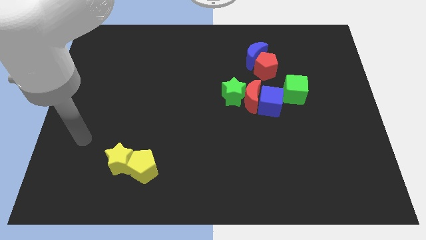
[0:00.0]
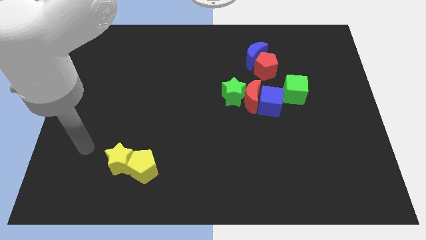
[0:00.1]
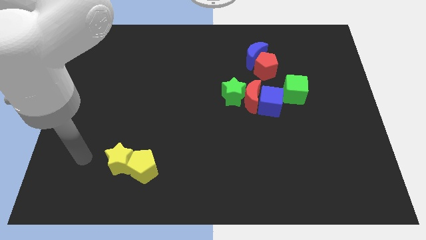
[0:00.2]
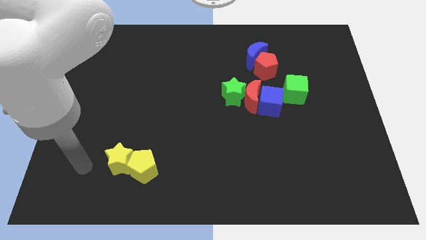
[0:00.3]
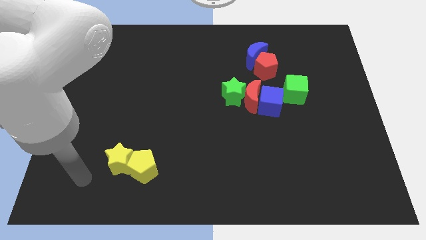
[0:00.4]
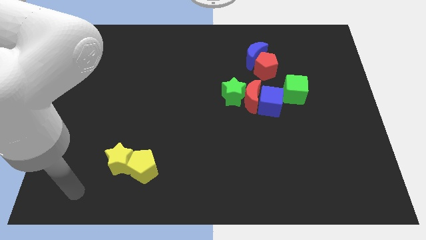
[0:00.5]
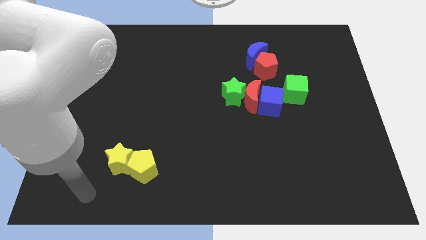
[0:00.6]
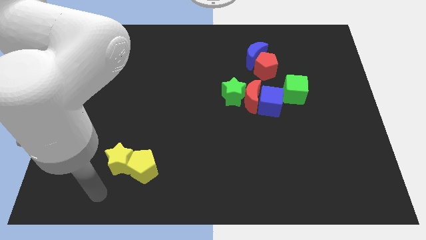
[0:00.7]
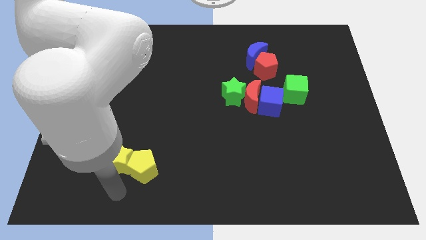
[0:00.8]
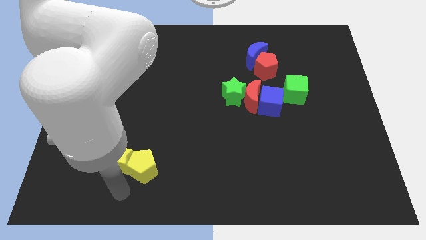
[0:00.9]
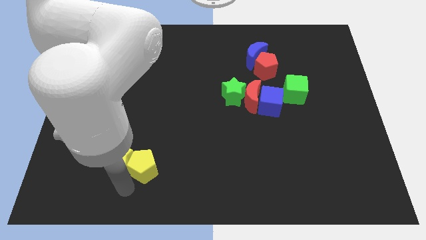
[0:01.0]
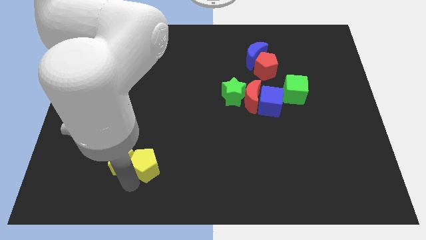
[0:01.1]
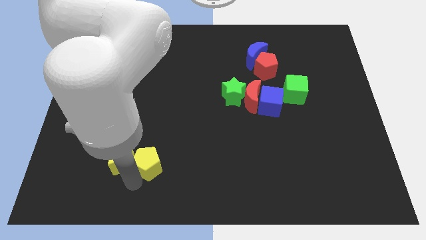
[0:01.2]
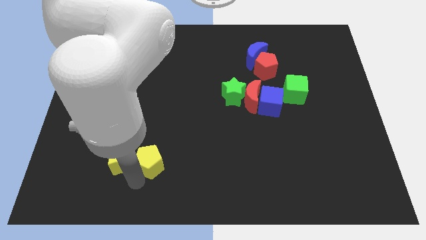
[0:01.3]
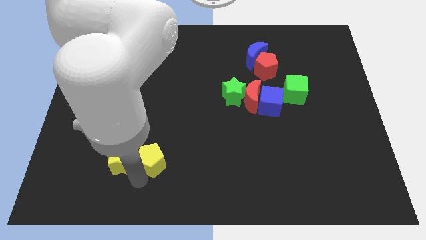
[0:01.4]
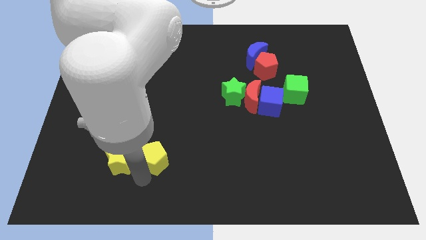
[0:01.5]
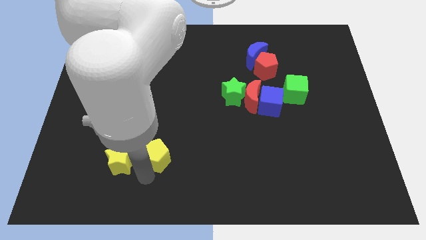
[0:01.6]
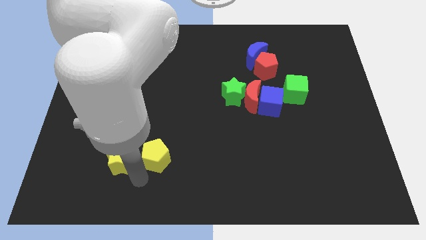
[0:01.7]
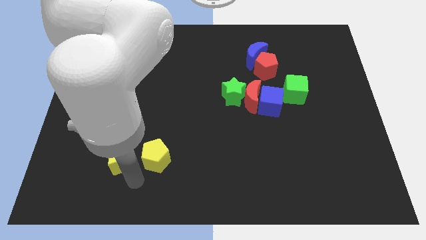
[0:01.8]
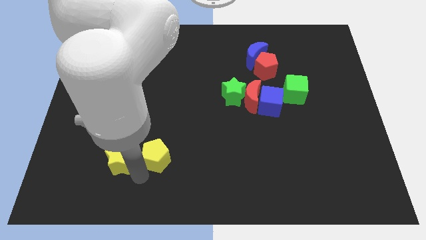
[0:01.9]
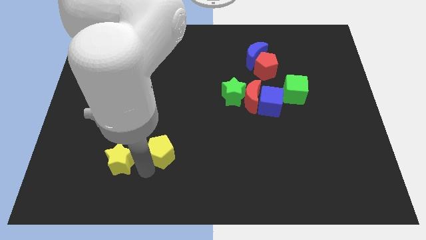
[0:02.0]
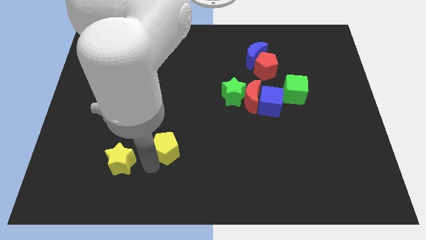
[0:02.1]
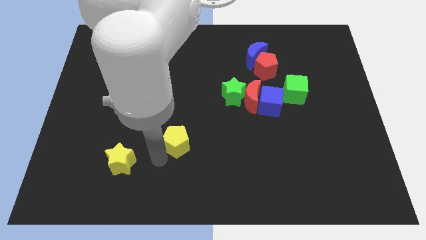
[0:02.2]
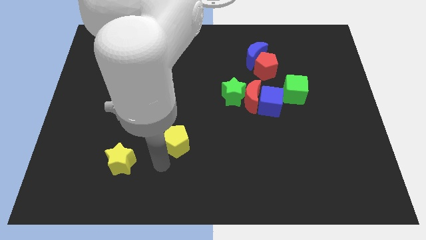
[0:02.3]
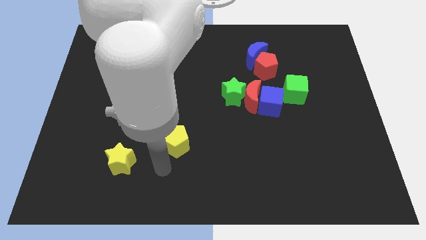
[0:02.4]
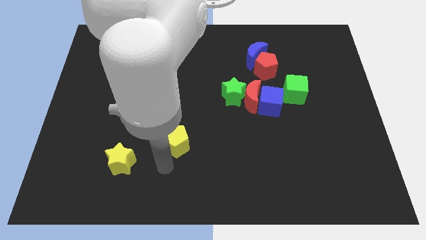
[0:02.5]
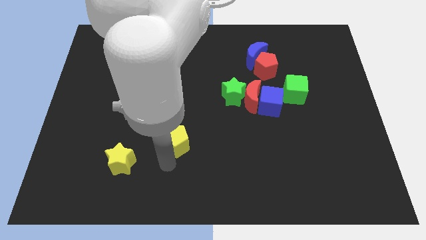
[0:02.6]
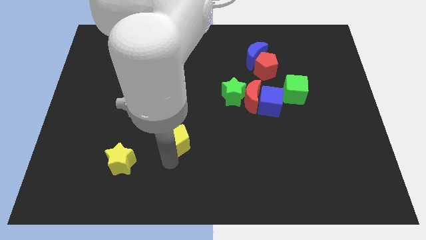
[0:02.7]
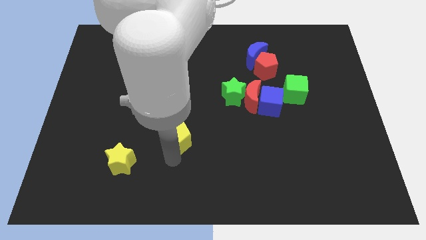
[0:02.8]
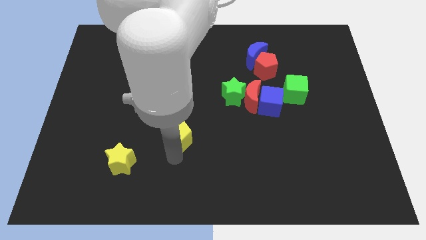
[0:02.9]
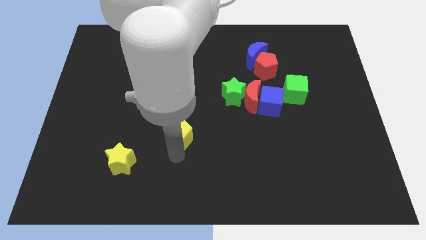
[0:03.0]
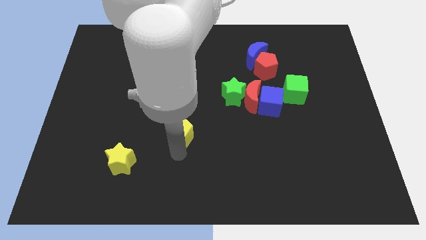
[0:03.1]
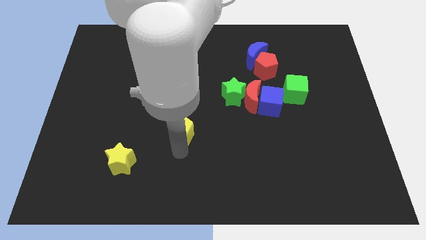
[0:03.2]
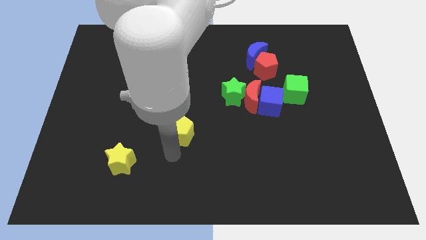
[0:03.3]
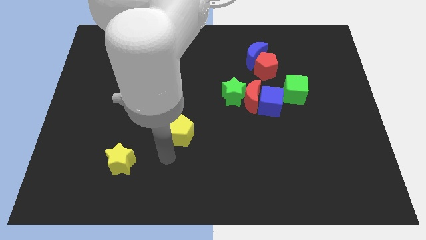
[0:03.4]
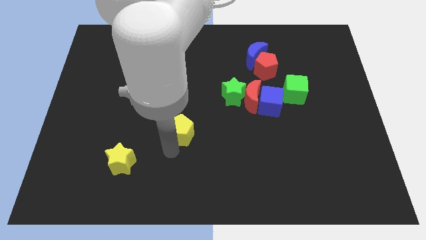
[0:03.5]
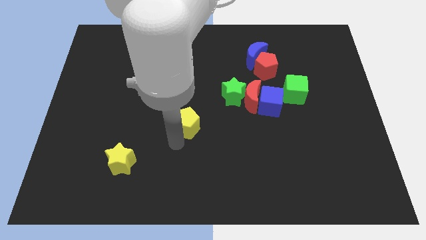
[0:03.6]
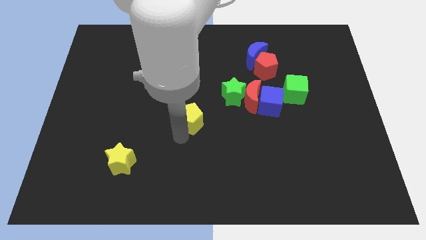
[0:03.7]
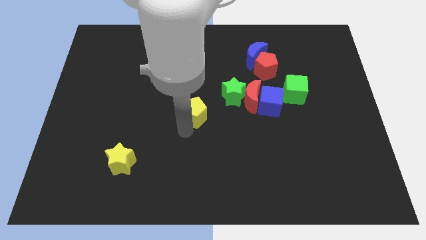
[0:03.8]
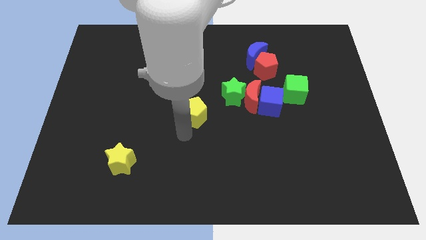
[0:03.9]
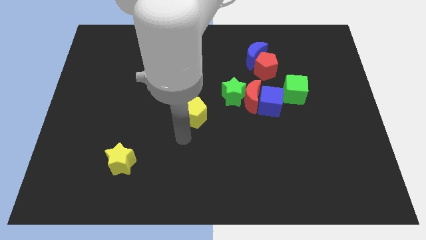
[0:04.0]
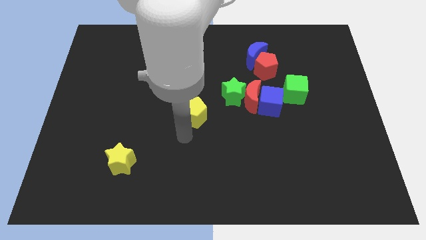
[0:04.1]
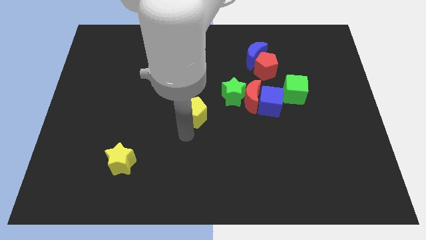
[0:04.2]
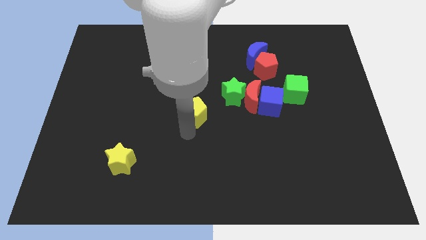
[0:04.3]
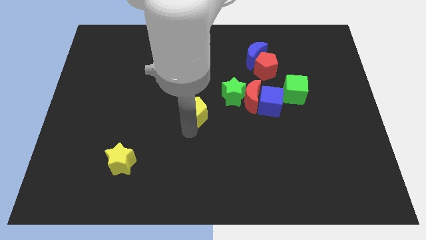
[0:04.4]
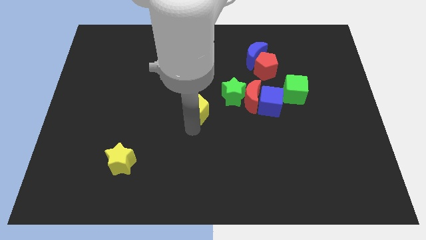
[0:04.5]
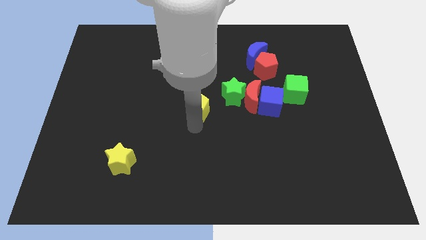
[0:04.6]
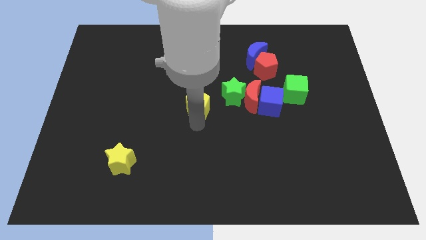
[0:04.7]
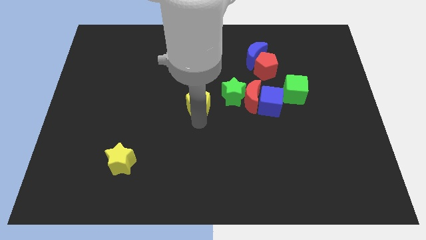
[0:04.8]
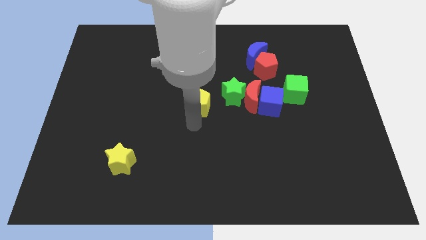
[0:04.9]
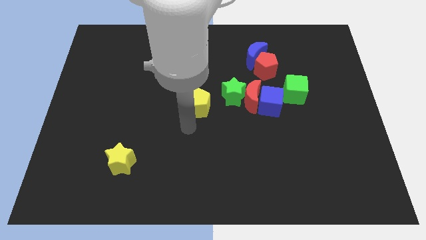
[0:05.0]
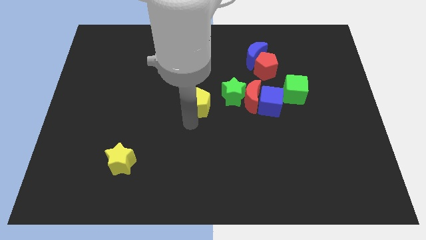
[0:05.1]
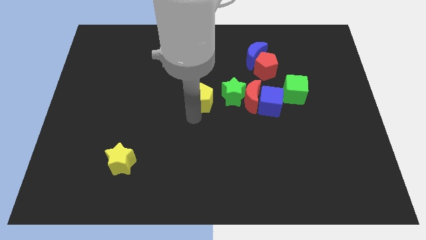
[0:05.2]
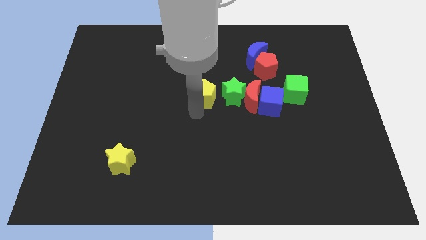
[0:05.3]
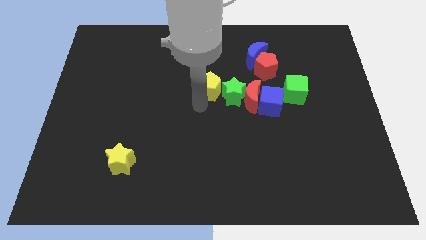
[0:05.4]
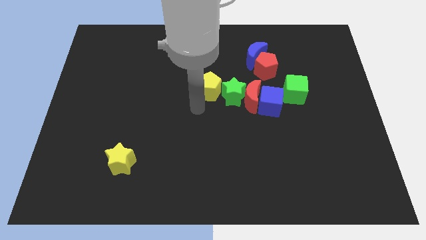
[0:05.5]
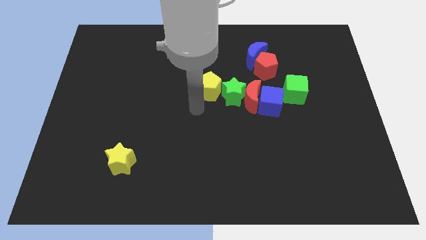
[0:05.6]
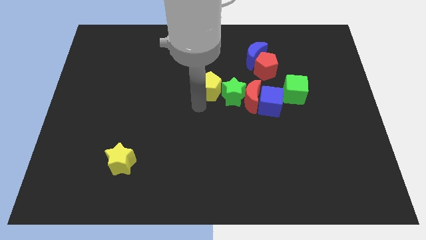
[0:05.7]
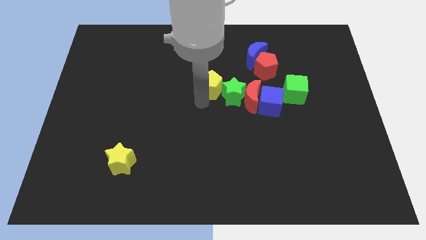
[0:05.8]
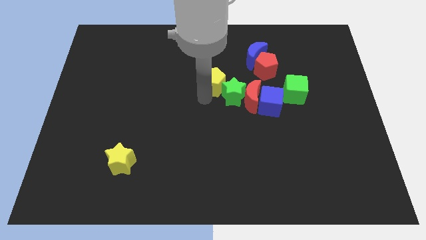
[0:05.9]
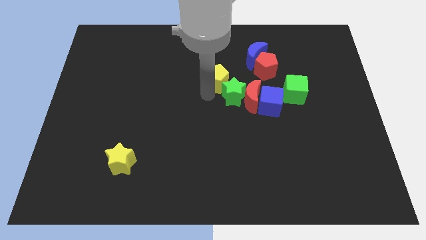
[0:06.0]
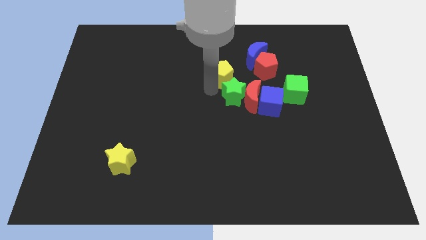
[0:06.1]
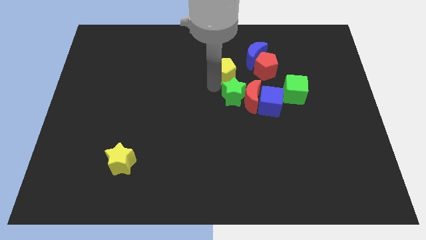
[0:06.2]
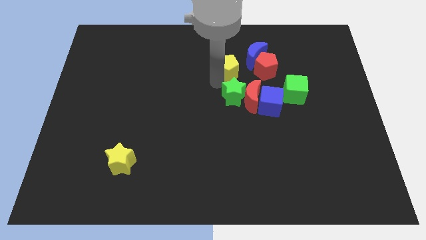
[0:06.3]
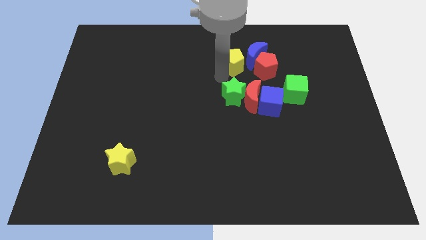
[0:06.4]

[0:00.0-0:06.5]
move the yellow pentagon close to the blue moon

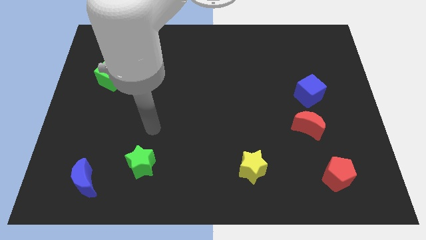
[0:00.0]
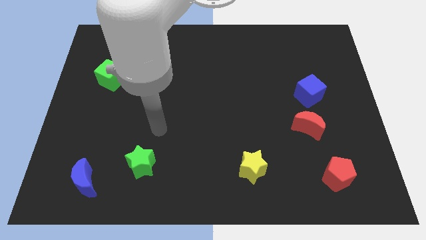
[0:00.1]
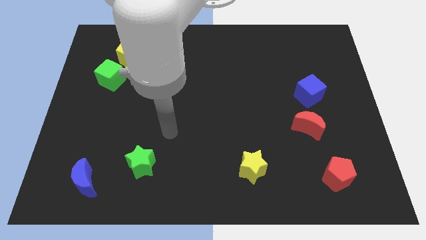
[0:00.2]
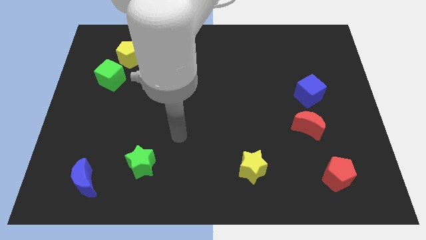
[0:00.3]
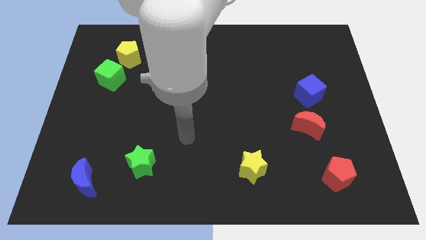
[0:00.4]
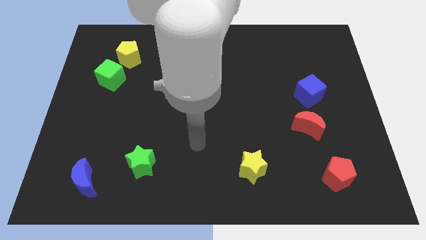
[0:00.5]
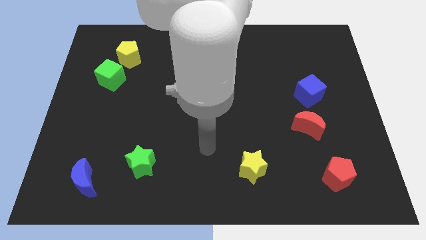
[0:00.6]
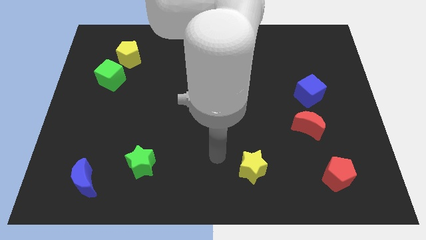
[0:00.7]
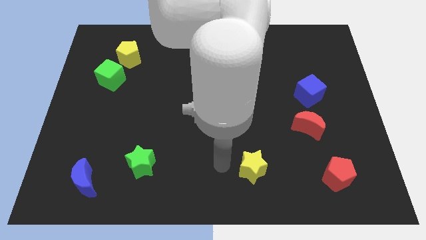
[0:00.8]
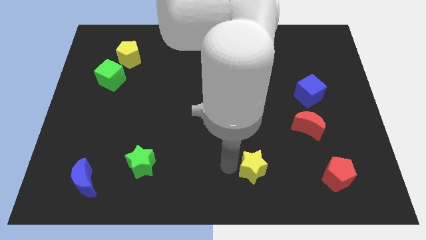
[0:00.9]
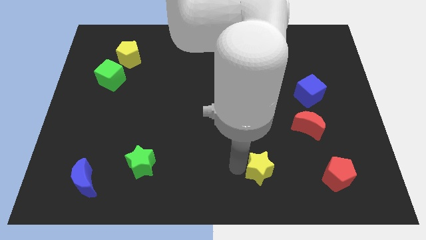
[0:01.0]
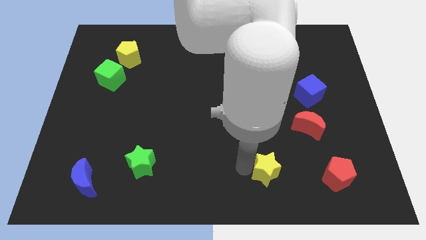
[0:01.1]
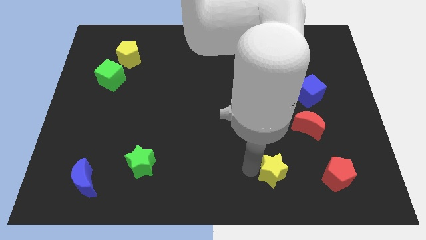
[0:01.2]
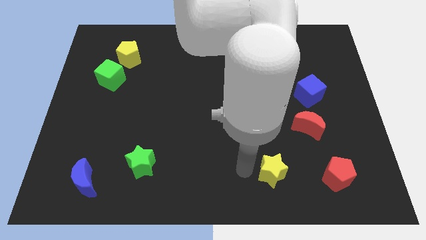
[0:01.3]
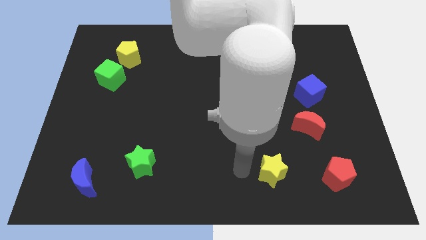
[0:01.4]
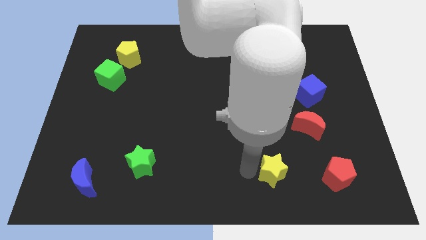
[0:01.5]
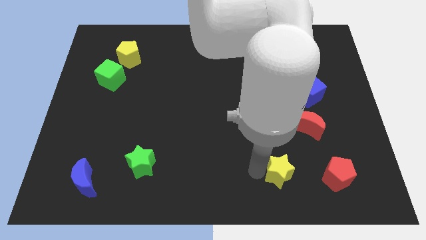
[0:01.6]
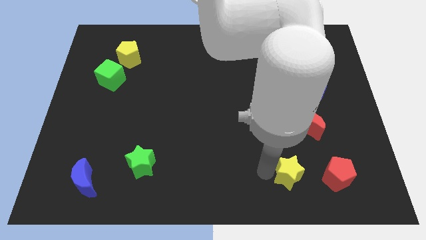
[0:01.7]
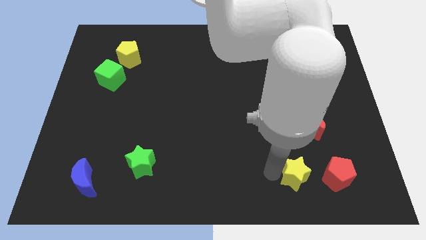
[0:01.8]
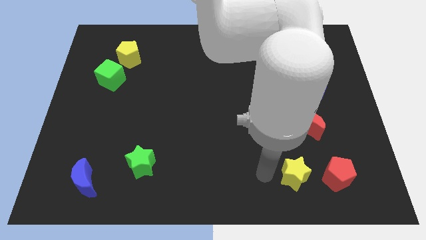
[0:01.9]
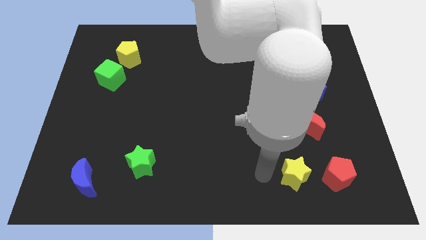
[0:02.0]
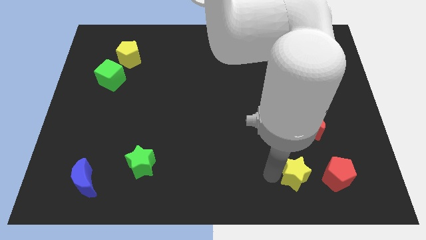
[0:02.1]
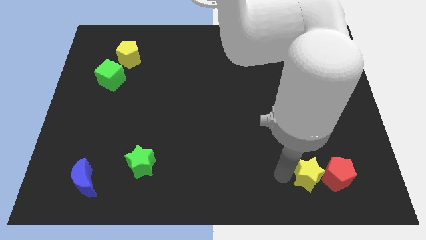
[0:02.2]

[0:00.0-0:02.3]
put the yellow star to the red pentagon
